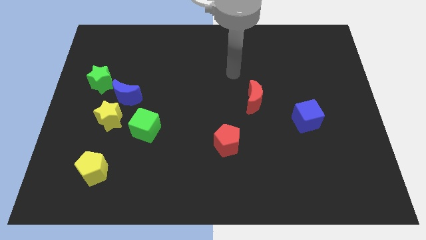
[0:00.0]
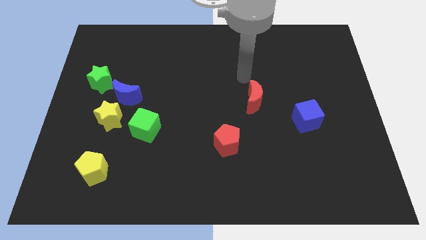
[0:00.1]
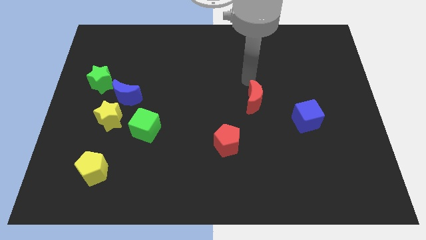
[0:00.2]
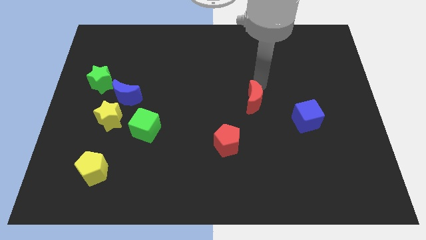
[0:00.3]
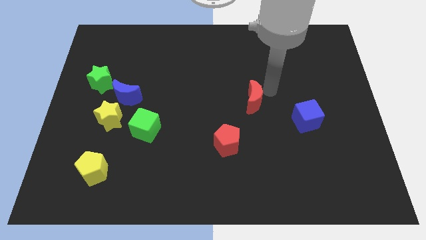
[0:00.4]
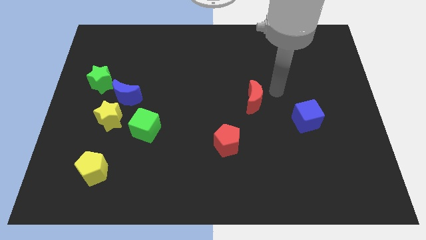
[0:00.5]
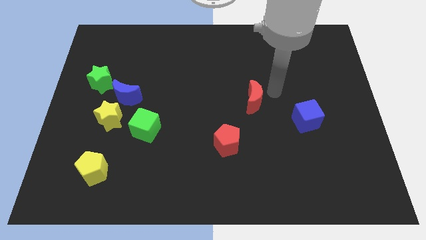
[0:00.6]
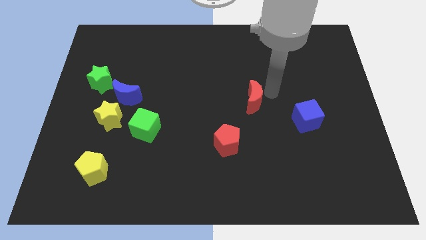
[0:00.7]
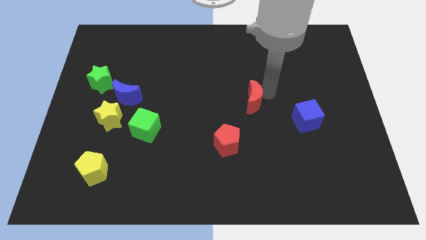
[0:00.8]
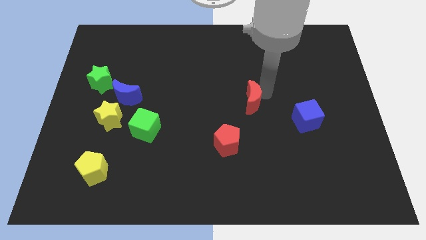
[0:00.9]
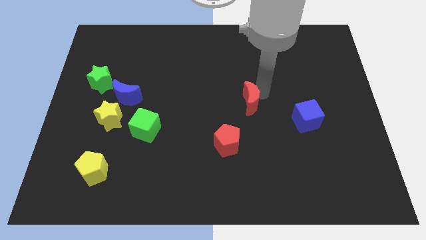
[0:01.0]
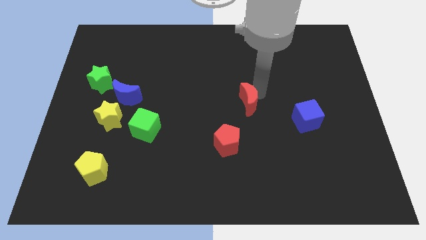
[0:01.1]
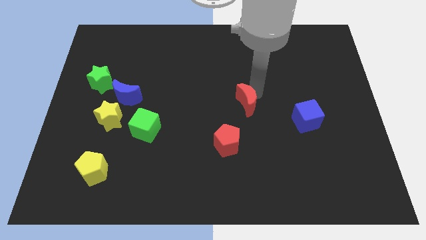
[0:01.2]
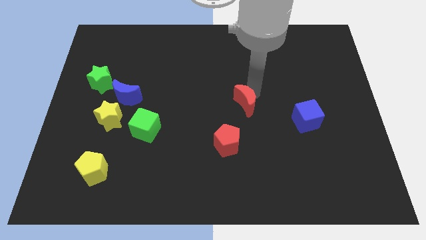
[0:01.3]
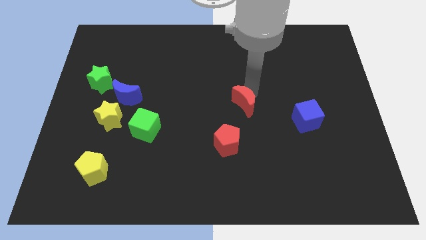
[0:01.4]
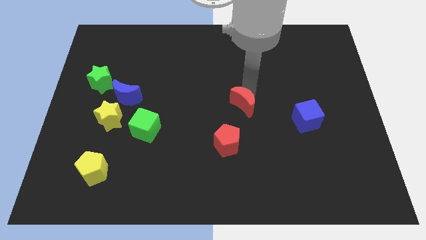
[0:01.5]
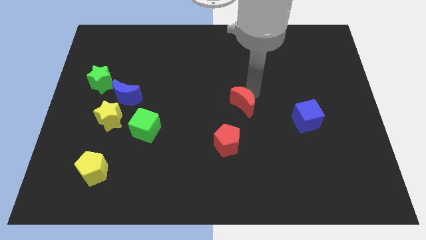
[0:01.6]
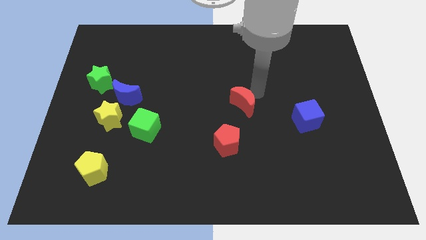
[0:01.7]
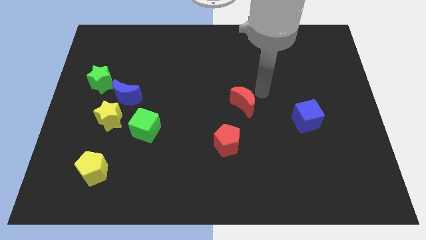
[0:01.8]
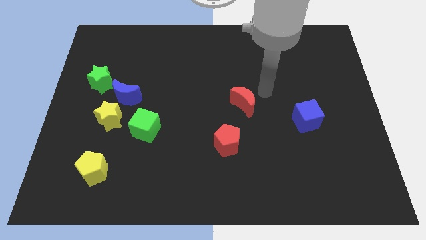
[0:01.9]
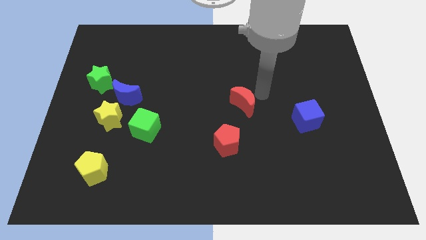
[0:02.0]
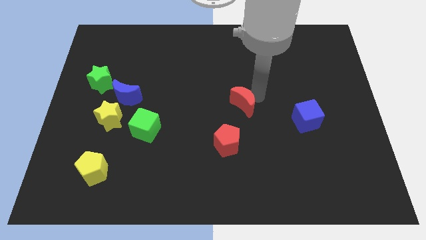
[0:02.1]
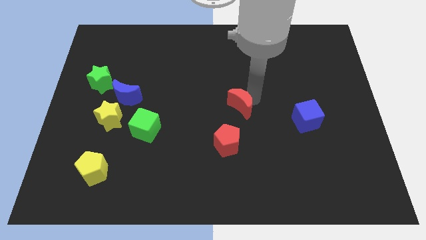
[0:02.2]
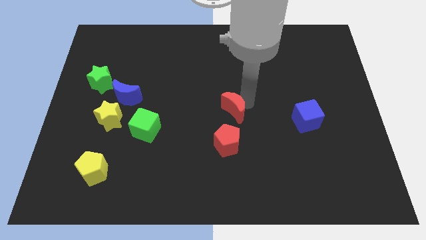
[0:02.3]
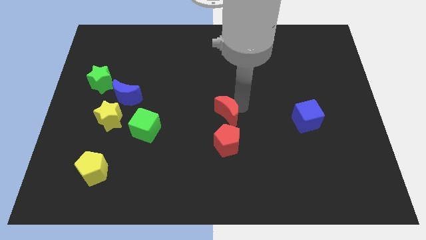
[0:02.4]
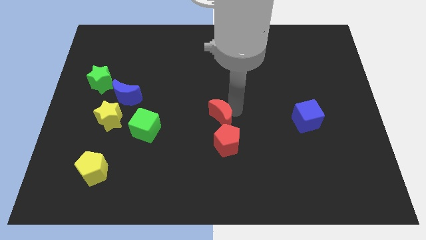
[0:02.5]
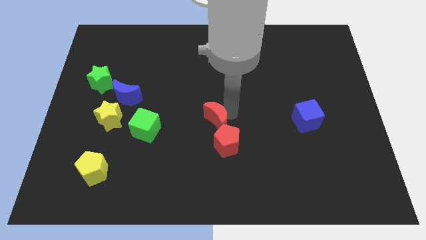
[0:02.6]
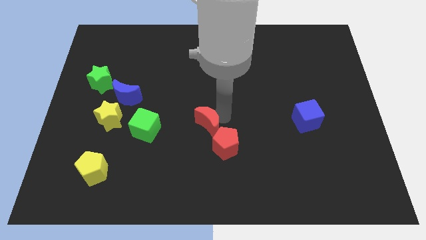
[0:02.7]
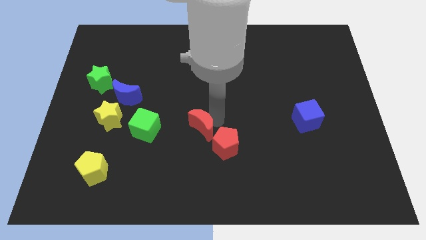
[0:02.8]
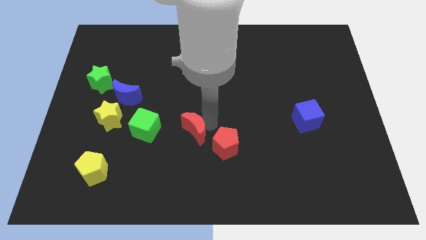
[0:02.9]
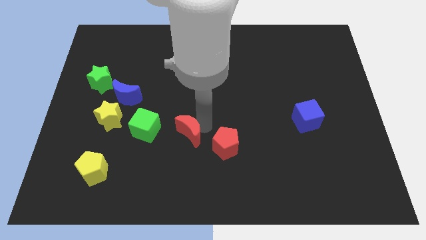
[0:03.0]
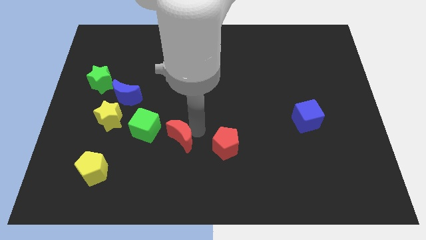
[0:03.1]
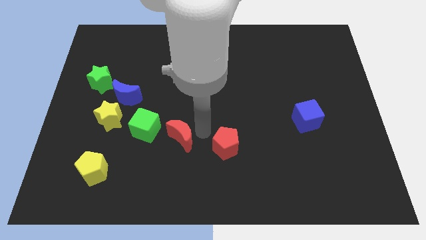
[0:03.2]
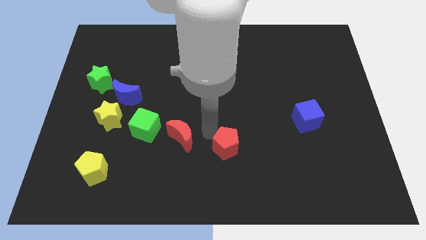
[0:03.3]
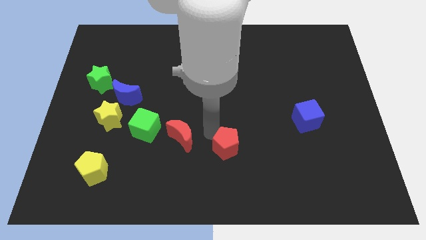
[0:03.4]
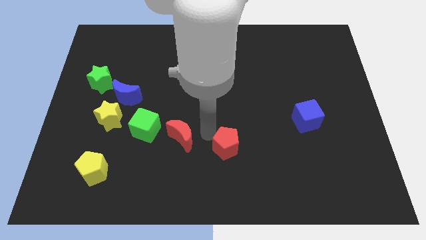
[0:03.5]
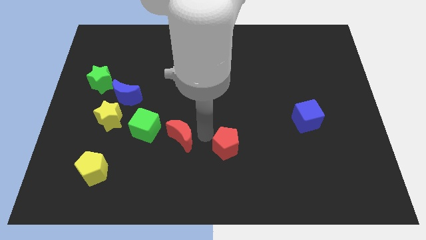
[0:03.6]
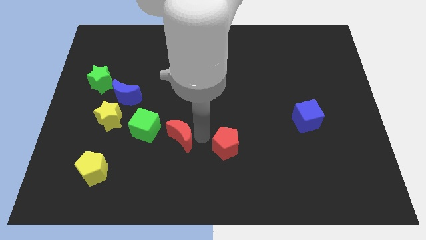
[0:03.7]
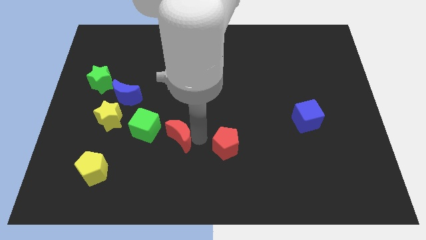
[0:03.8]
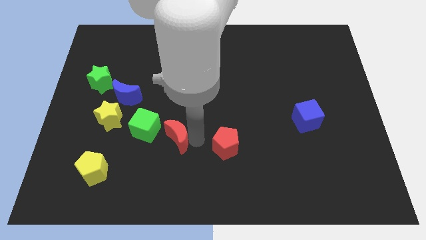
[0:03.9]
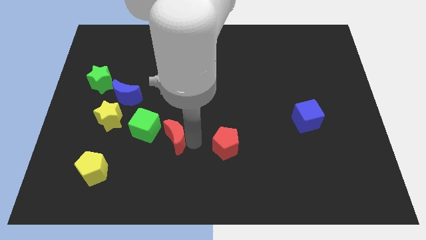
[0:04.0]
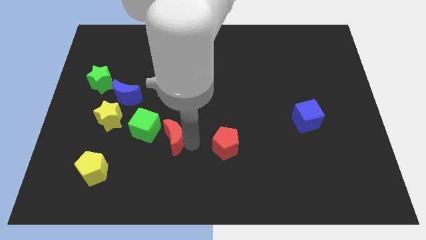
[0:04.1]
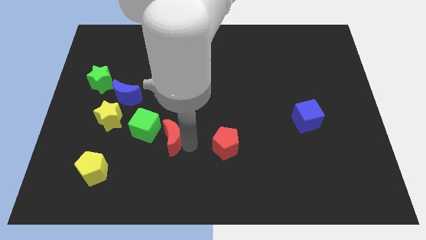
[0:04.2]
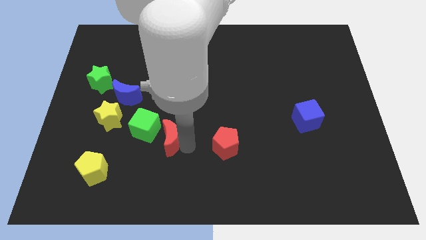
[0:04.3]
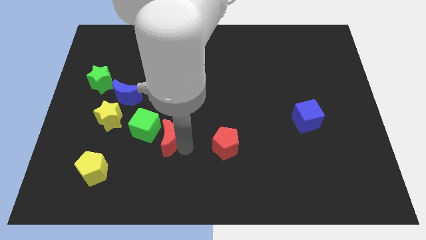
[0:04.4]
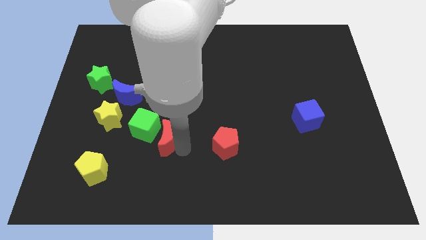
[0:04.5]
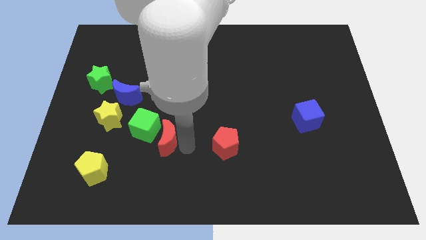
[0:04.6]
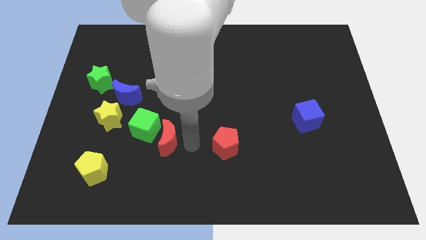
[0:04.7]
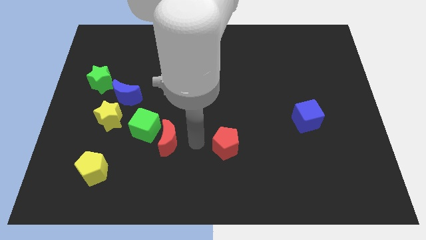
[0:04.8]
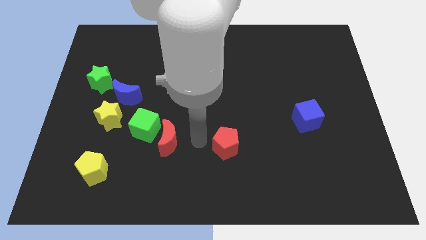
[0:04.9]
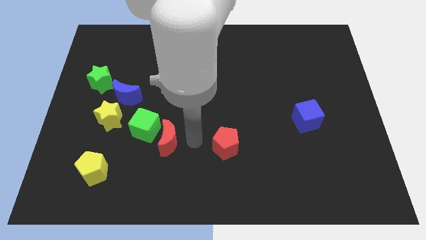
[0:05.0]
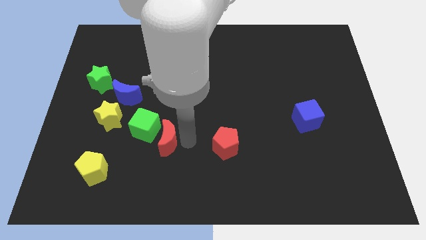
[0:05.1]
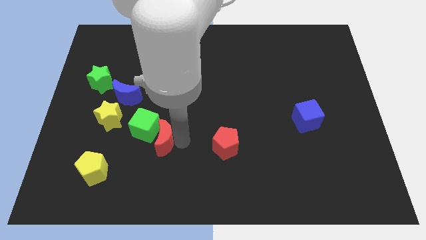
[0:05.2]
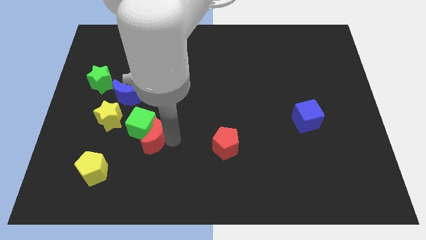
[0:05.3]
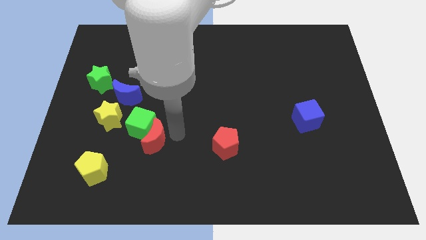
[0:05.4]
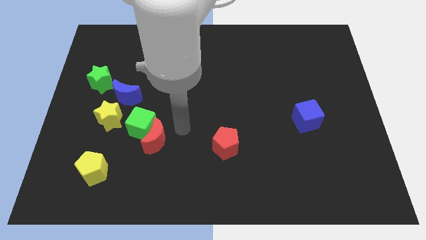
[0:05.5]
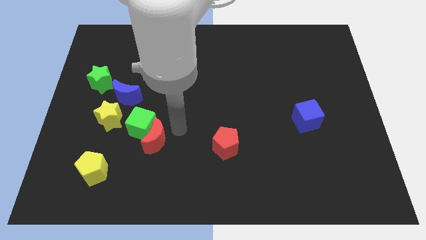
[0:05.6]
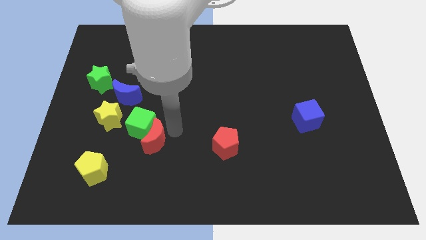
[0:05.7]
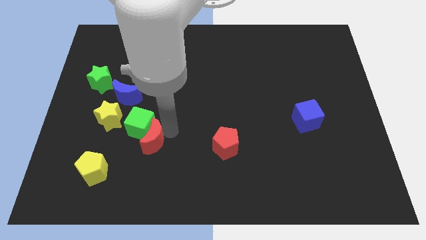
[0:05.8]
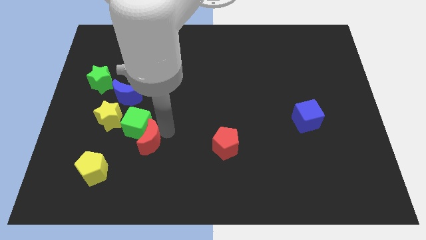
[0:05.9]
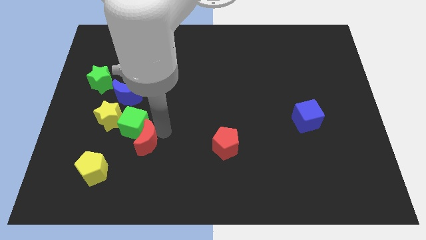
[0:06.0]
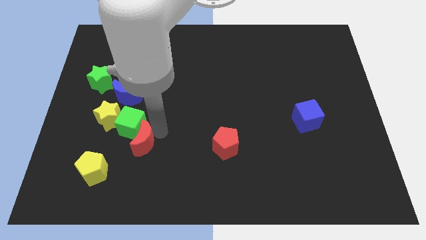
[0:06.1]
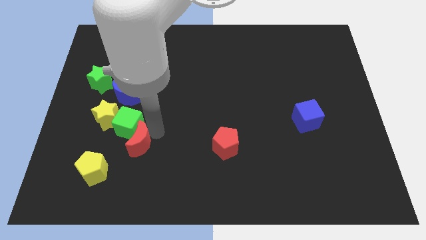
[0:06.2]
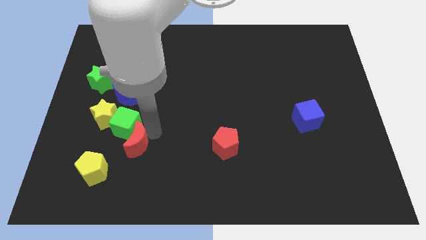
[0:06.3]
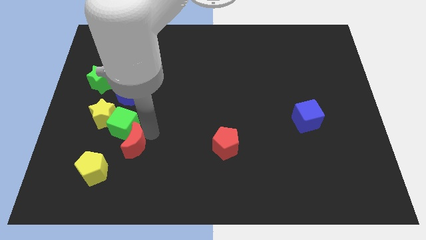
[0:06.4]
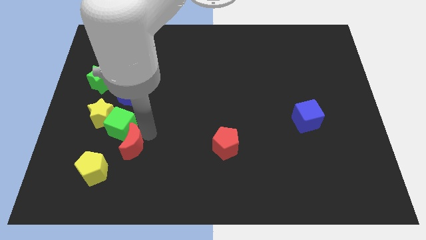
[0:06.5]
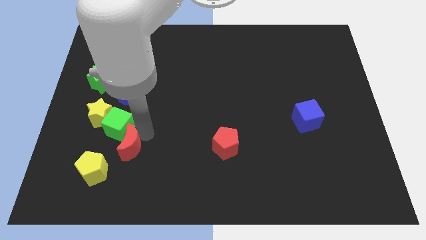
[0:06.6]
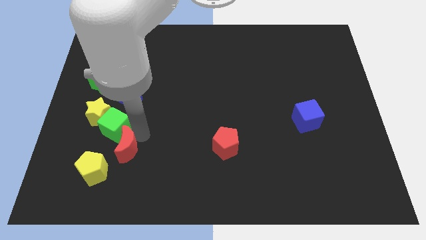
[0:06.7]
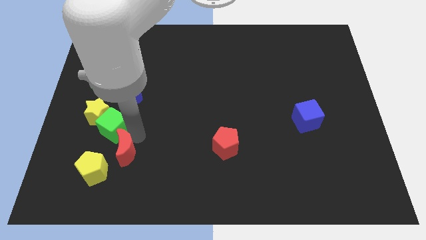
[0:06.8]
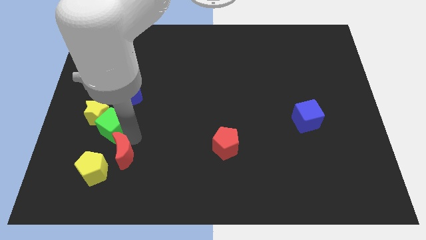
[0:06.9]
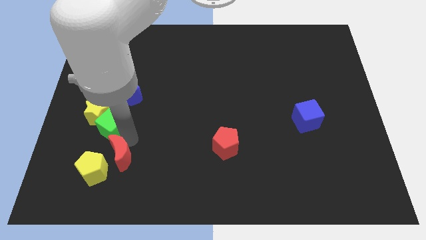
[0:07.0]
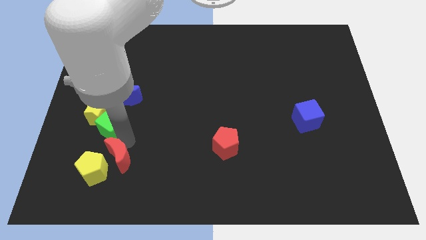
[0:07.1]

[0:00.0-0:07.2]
push the red moon towards the yellow pentagon

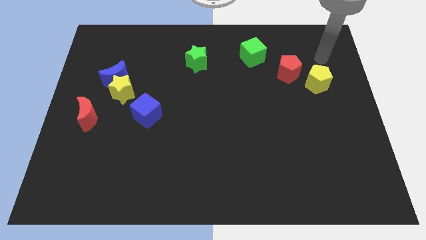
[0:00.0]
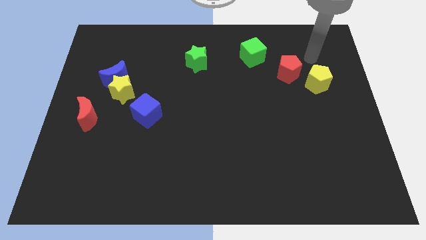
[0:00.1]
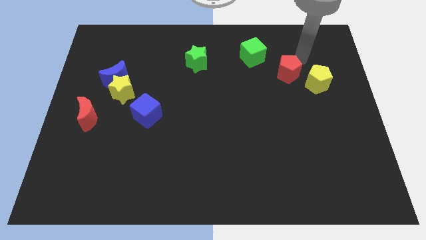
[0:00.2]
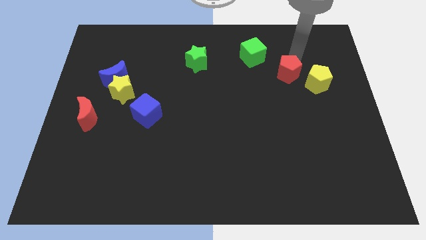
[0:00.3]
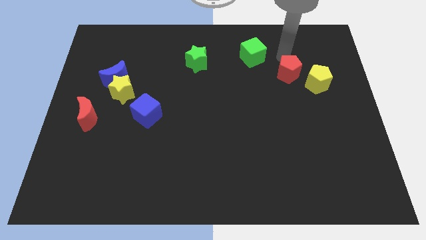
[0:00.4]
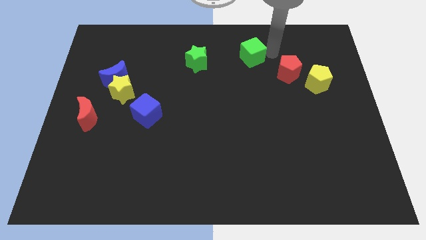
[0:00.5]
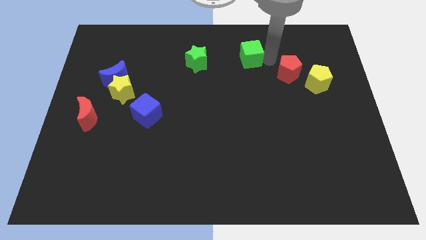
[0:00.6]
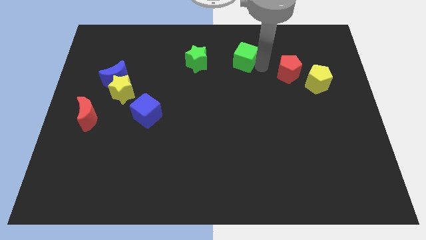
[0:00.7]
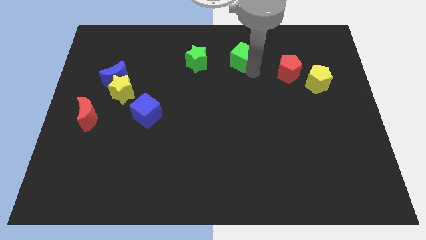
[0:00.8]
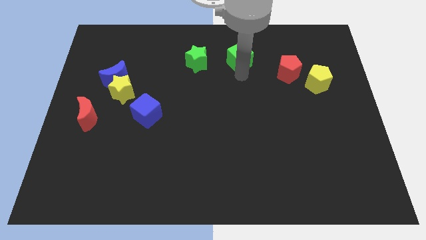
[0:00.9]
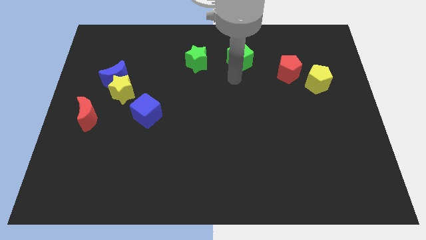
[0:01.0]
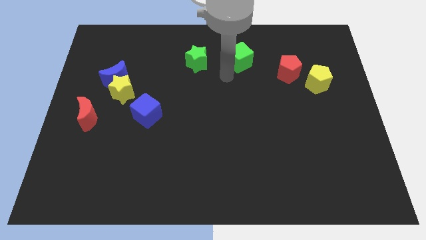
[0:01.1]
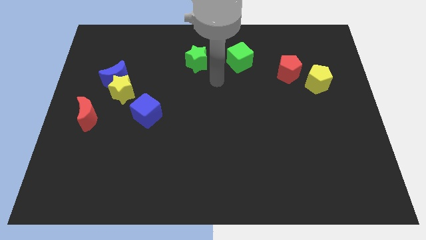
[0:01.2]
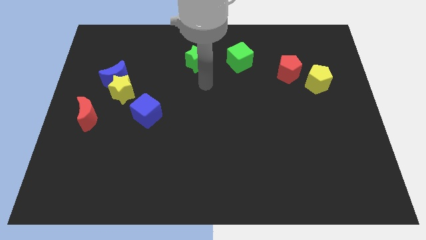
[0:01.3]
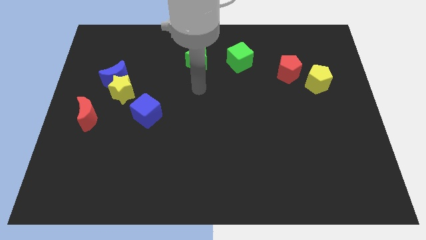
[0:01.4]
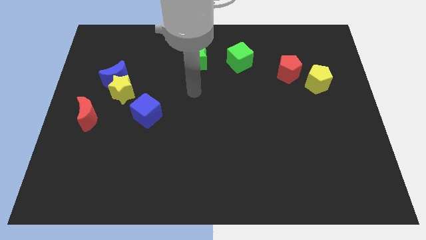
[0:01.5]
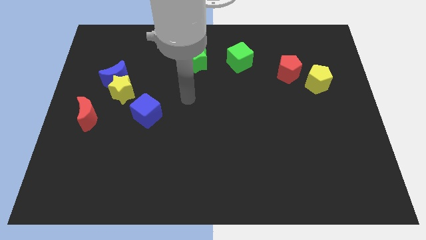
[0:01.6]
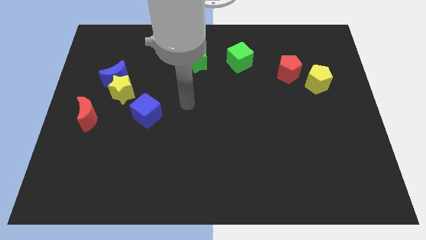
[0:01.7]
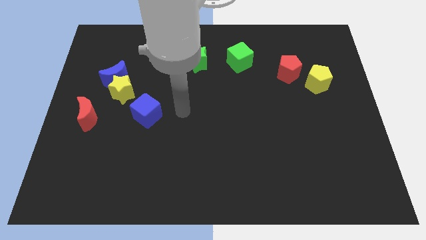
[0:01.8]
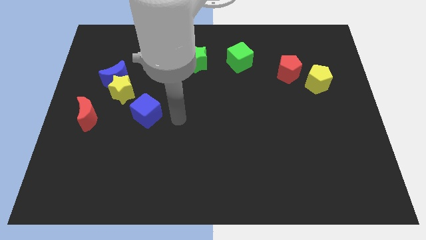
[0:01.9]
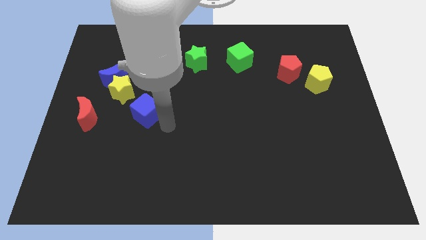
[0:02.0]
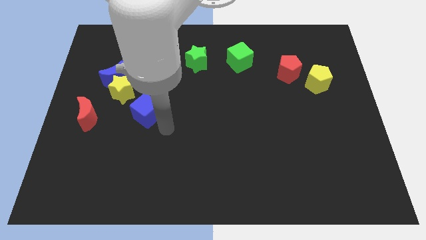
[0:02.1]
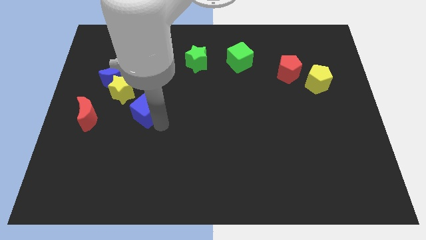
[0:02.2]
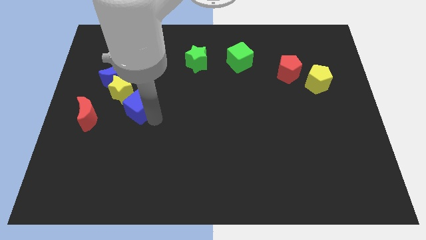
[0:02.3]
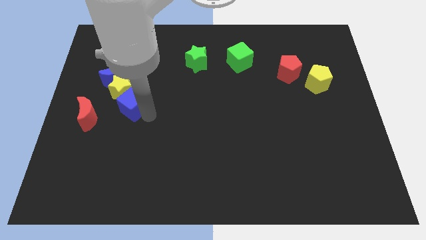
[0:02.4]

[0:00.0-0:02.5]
slide the blue cube next to the yellow star
